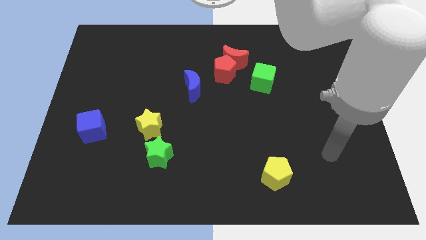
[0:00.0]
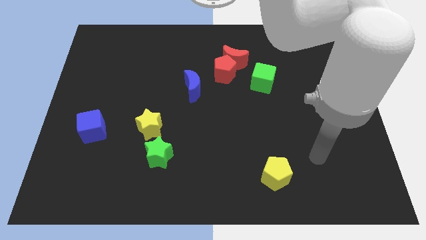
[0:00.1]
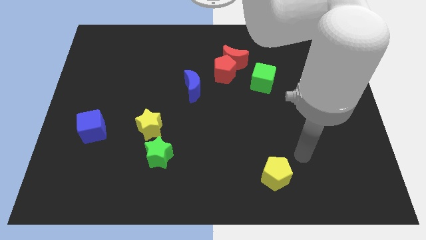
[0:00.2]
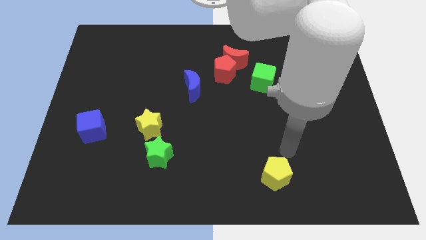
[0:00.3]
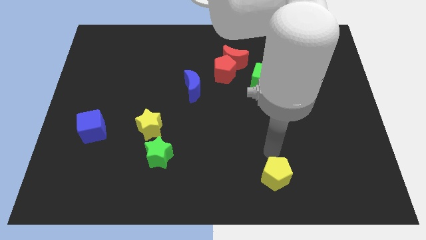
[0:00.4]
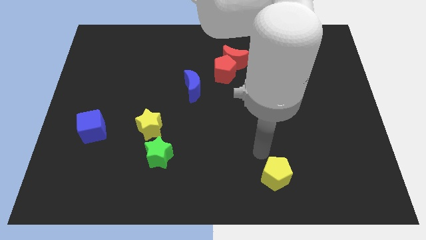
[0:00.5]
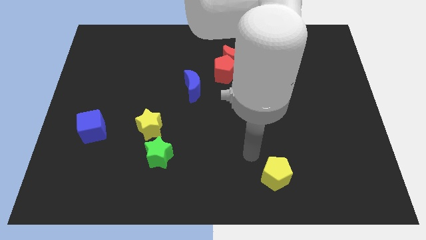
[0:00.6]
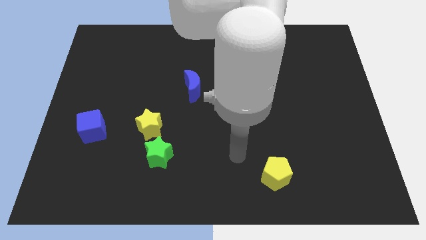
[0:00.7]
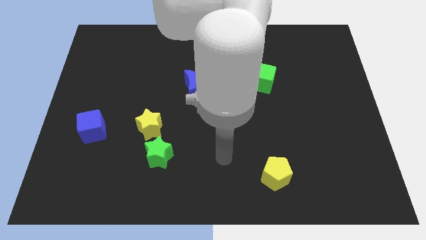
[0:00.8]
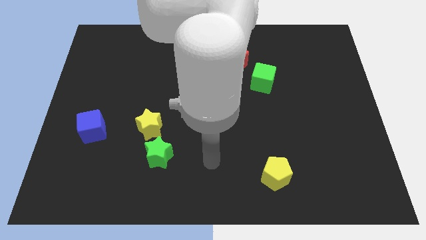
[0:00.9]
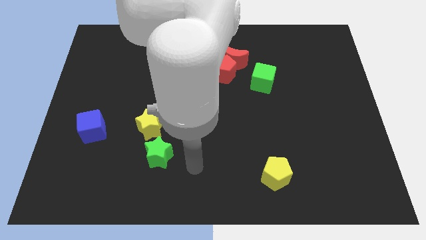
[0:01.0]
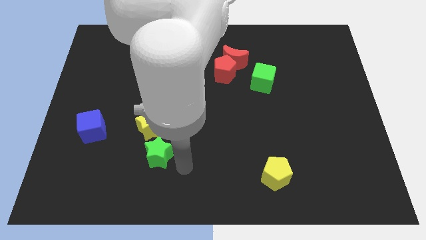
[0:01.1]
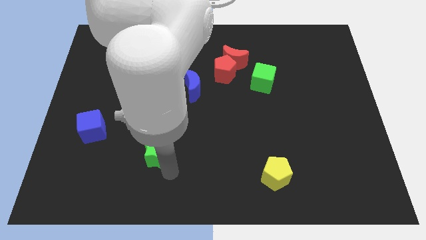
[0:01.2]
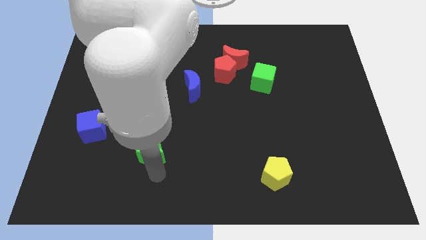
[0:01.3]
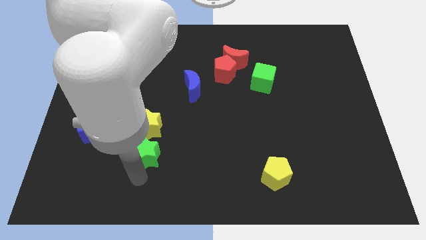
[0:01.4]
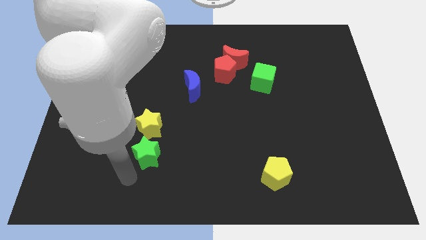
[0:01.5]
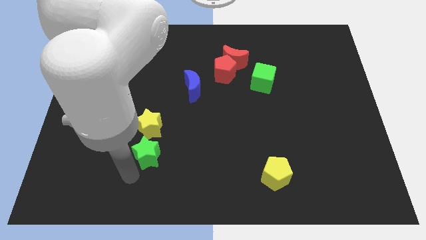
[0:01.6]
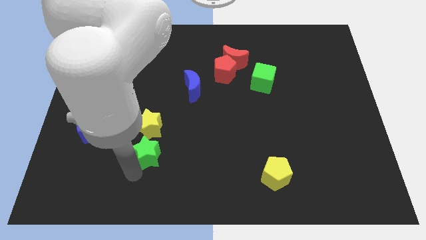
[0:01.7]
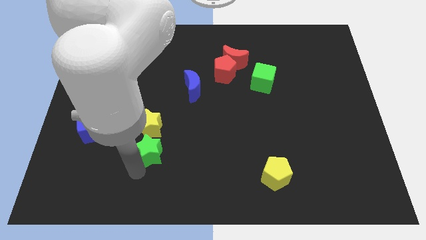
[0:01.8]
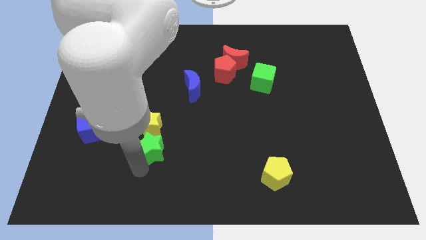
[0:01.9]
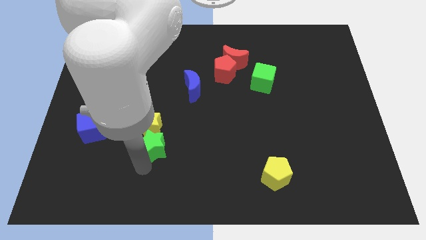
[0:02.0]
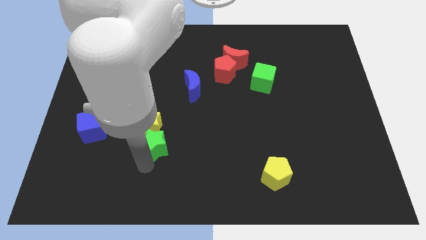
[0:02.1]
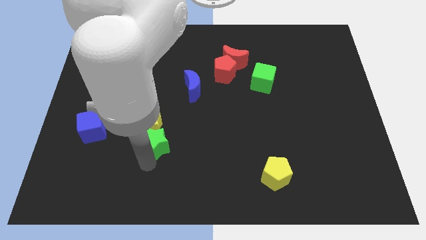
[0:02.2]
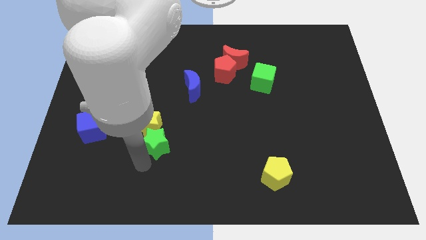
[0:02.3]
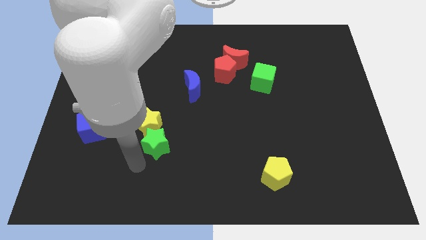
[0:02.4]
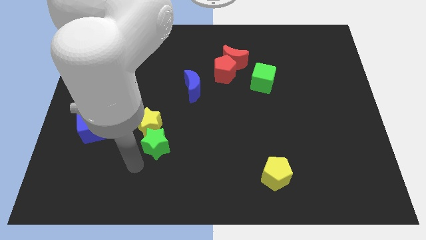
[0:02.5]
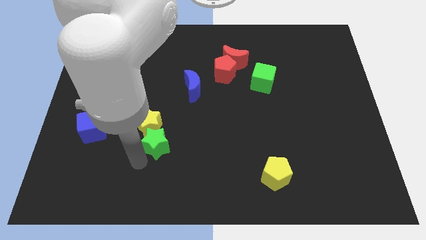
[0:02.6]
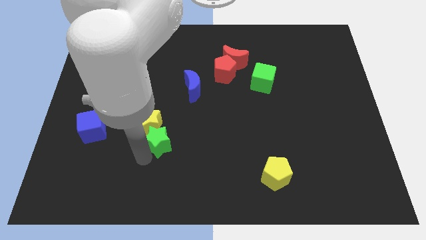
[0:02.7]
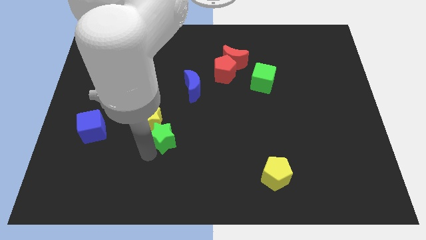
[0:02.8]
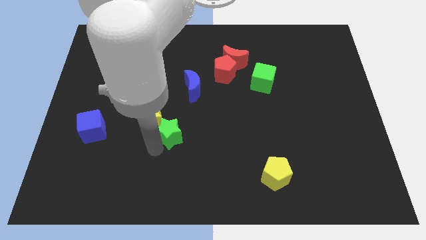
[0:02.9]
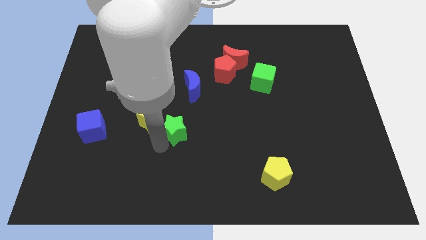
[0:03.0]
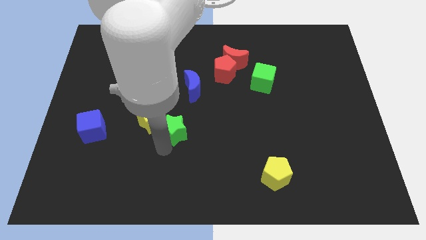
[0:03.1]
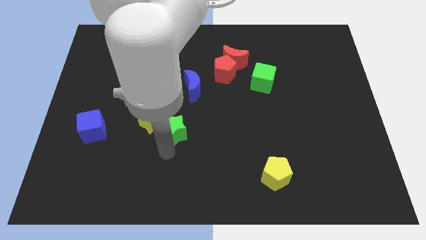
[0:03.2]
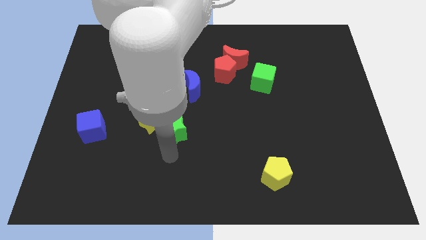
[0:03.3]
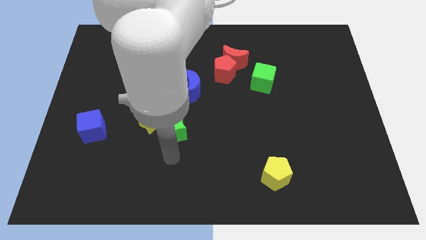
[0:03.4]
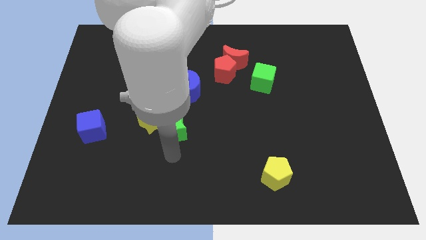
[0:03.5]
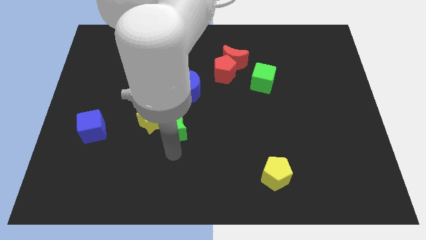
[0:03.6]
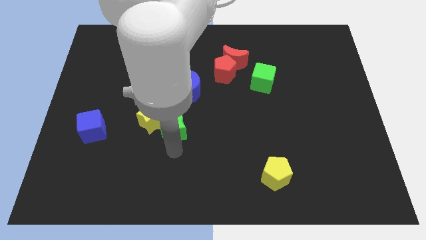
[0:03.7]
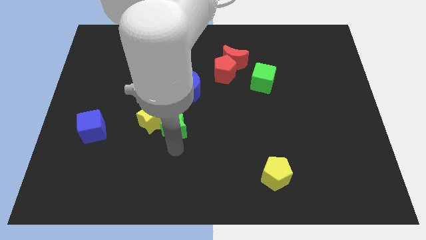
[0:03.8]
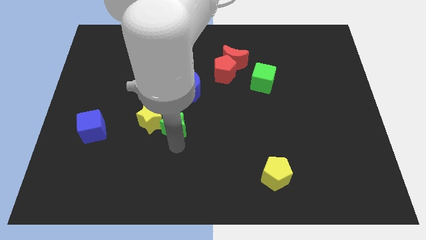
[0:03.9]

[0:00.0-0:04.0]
slide the green star up somewhat

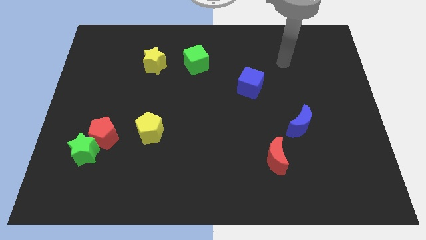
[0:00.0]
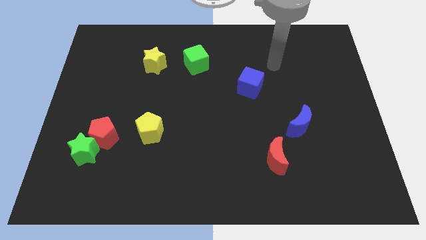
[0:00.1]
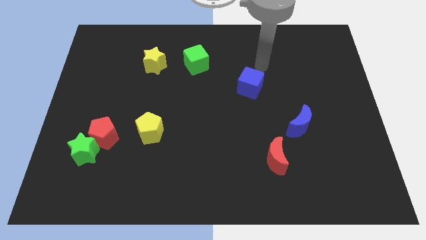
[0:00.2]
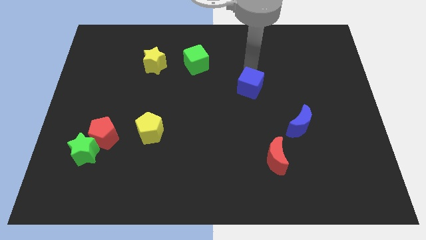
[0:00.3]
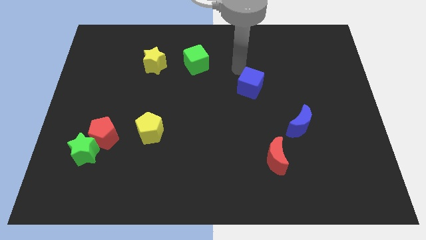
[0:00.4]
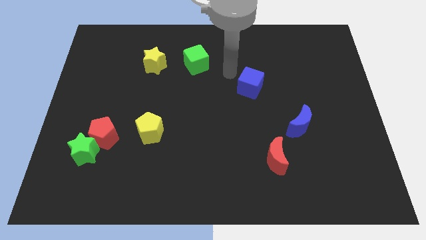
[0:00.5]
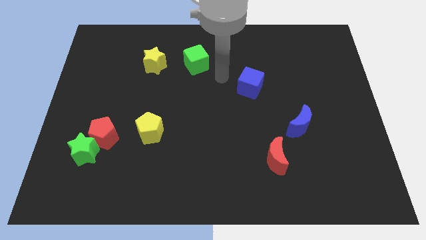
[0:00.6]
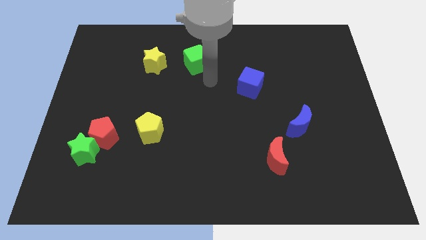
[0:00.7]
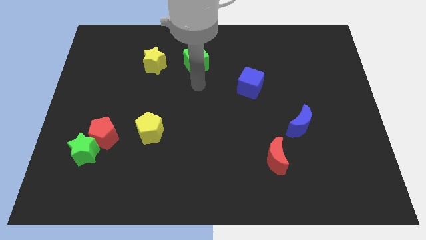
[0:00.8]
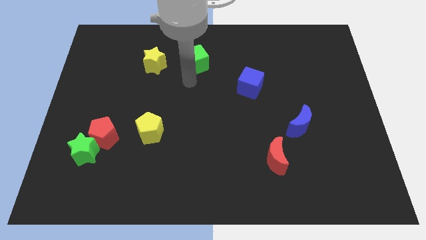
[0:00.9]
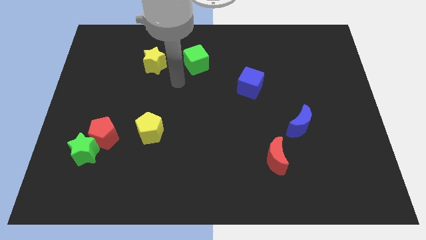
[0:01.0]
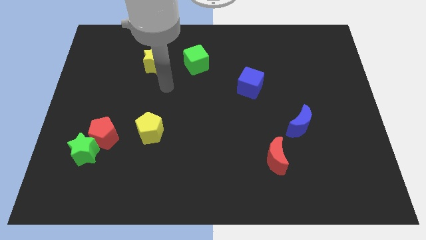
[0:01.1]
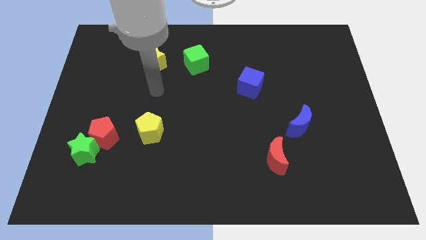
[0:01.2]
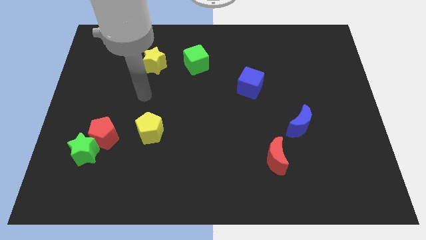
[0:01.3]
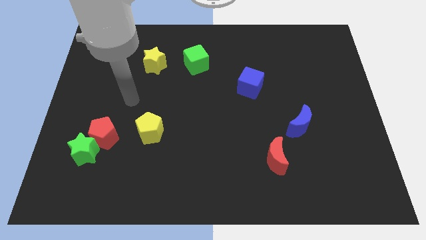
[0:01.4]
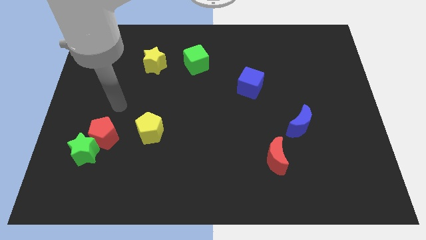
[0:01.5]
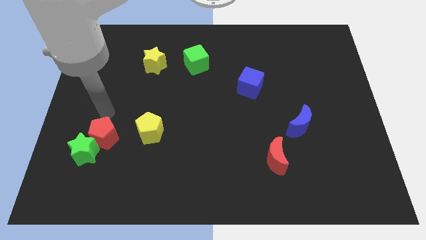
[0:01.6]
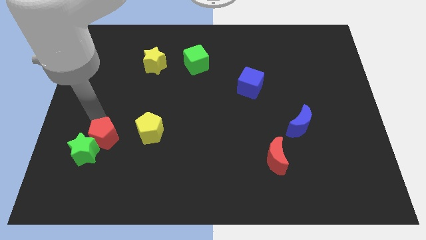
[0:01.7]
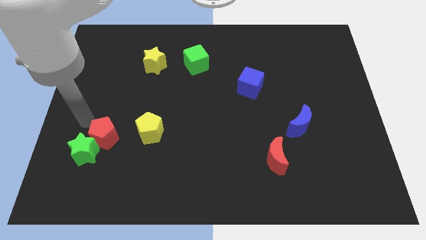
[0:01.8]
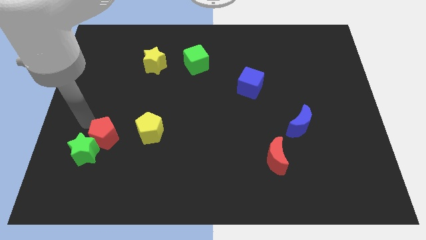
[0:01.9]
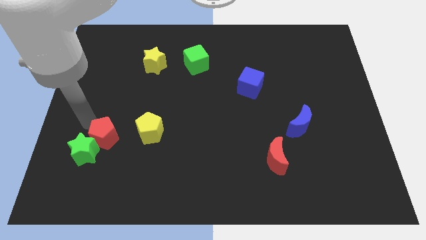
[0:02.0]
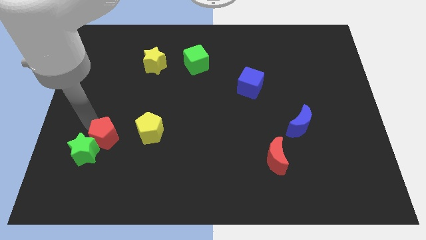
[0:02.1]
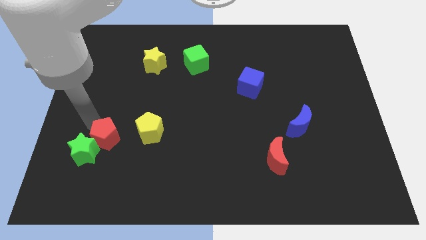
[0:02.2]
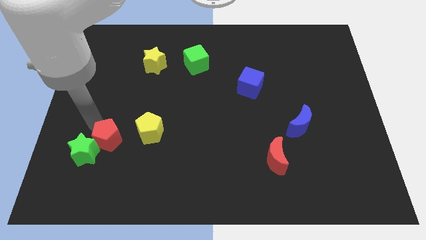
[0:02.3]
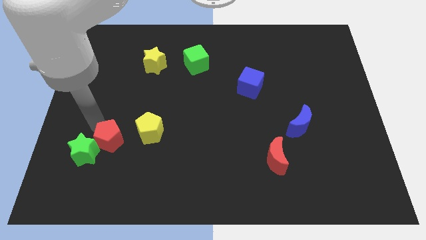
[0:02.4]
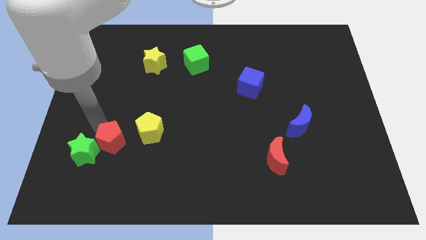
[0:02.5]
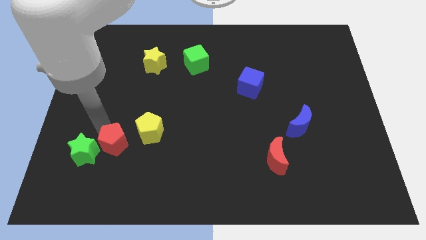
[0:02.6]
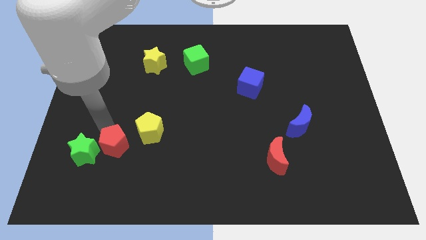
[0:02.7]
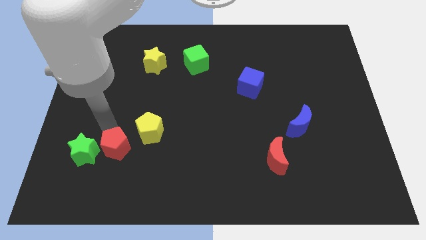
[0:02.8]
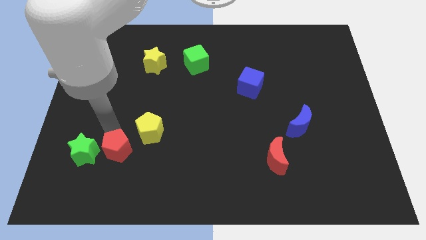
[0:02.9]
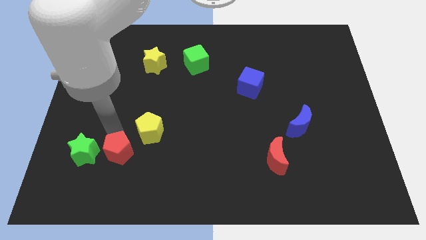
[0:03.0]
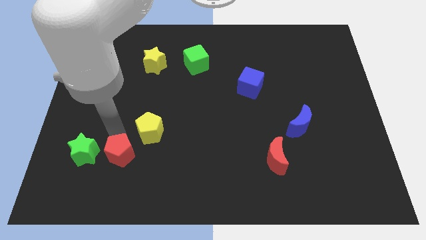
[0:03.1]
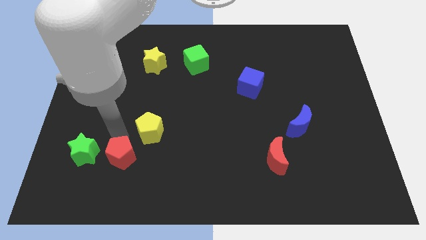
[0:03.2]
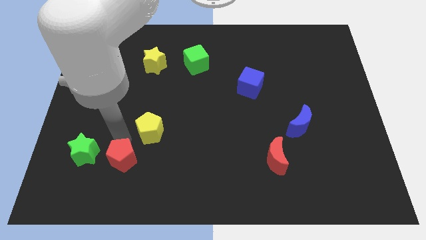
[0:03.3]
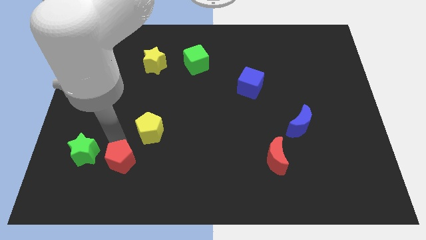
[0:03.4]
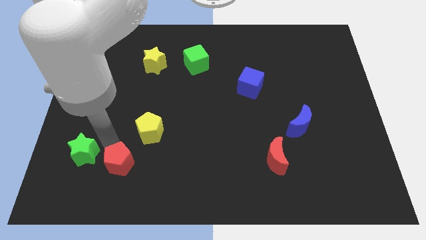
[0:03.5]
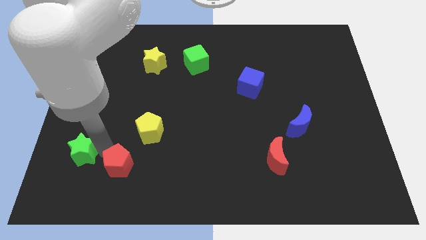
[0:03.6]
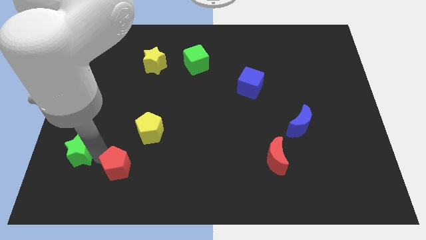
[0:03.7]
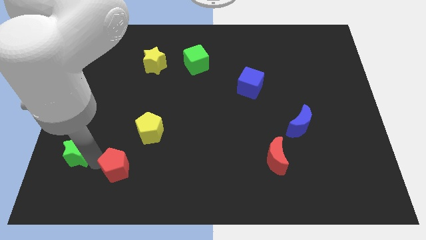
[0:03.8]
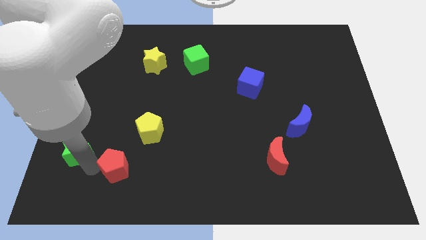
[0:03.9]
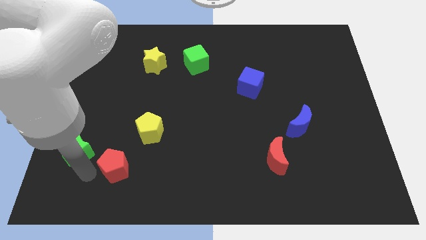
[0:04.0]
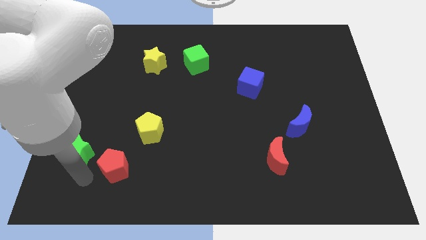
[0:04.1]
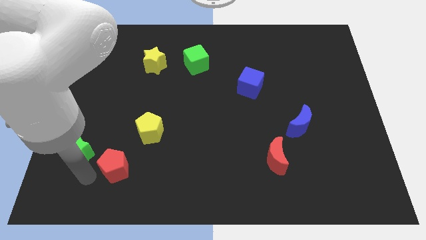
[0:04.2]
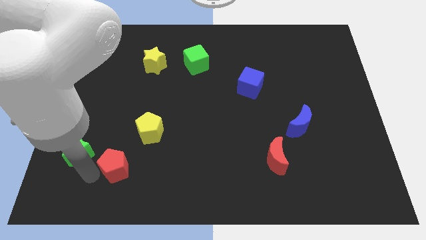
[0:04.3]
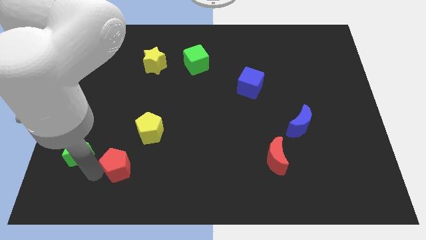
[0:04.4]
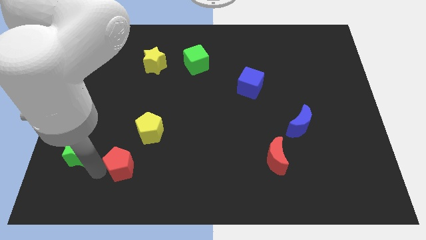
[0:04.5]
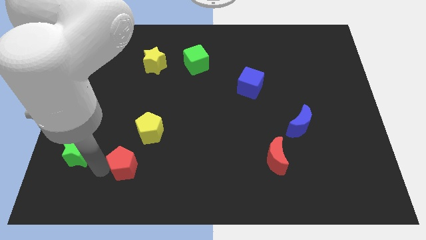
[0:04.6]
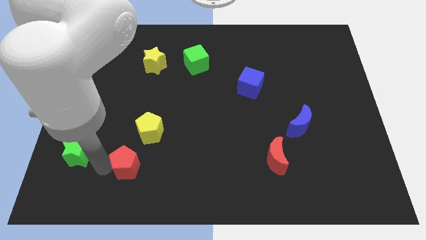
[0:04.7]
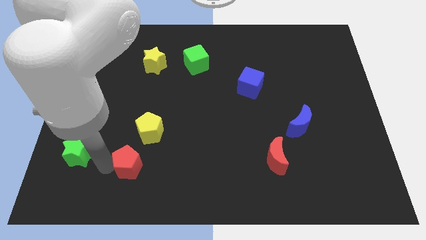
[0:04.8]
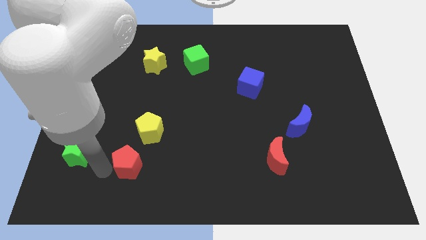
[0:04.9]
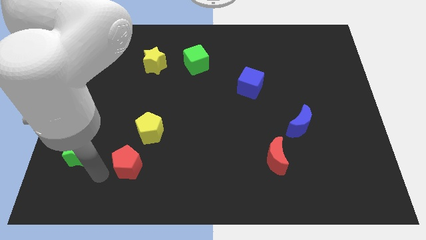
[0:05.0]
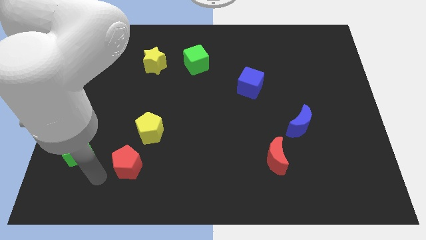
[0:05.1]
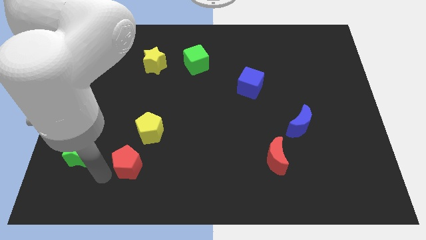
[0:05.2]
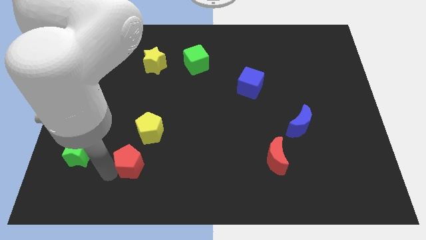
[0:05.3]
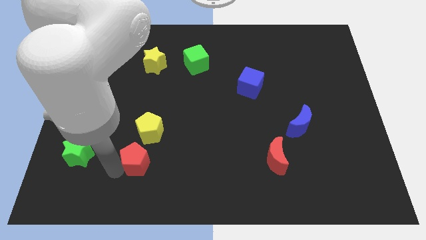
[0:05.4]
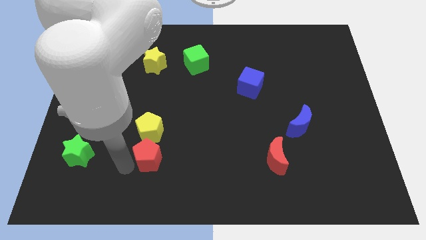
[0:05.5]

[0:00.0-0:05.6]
slightly push the red pentagon right
